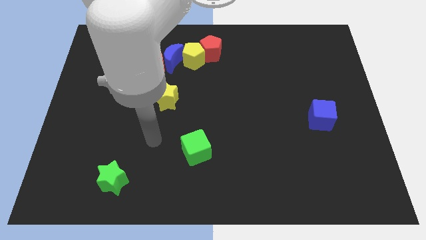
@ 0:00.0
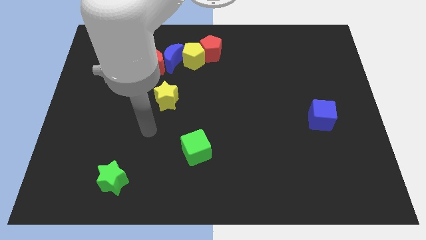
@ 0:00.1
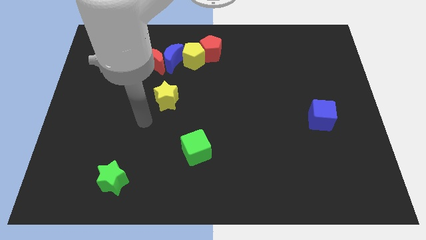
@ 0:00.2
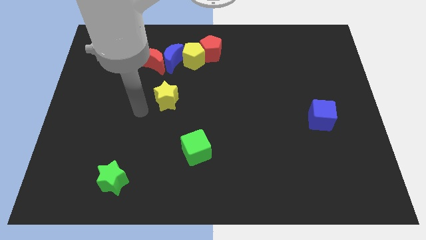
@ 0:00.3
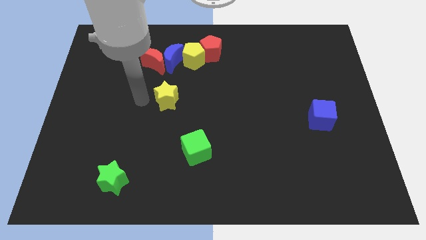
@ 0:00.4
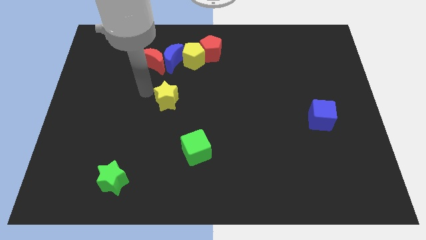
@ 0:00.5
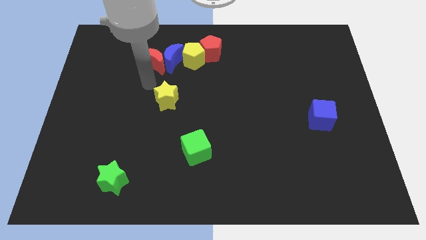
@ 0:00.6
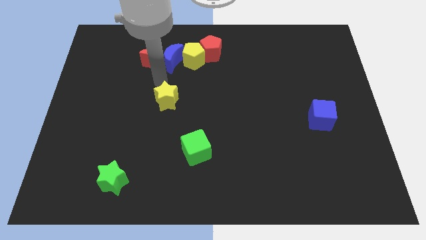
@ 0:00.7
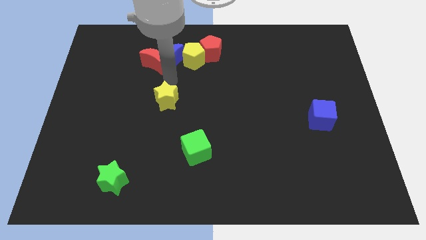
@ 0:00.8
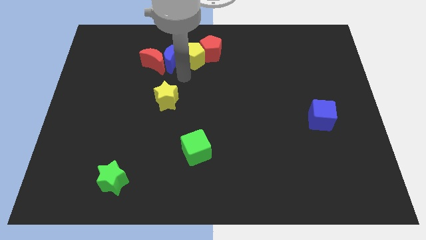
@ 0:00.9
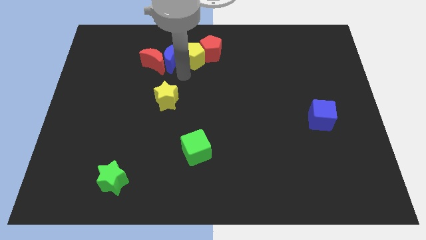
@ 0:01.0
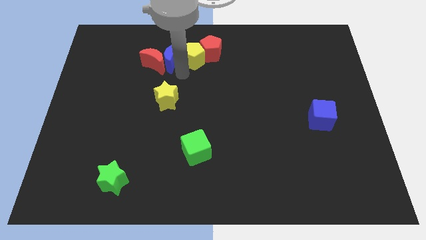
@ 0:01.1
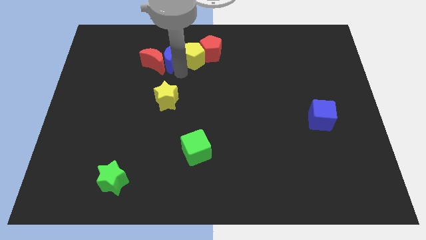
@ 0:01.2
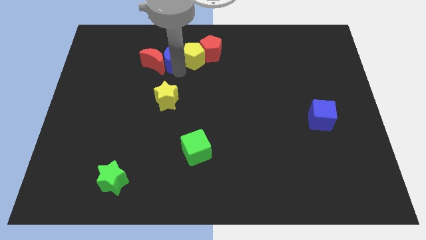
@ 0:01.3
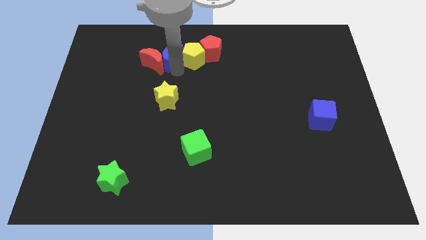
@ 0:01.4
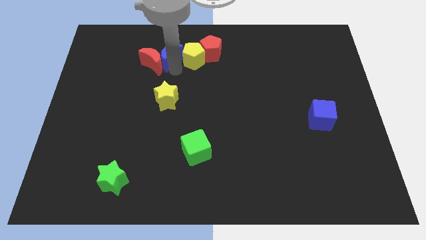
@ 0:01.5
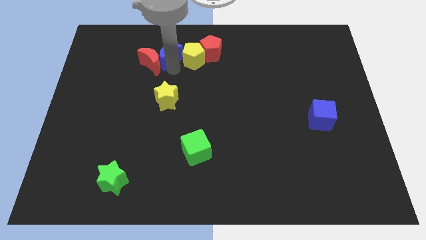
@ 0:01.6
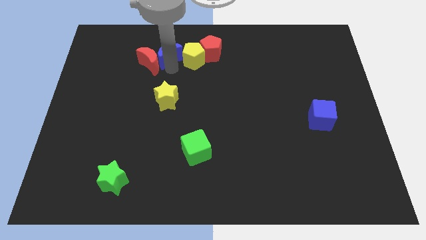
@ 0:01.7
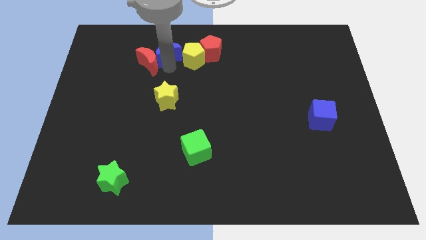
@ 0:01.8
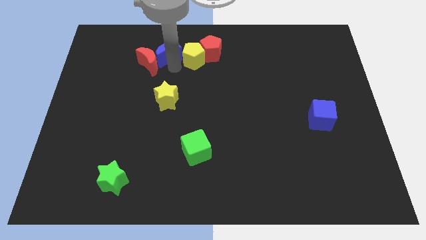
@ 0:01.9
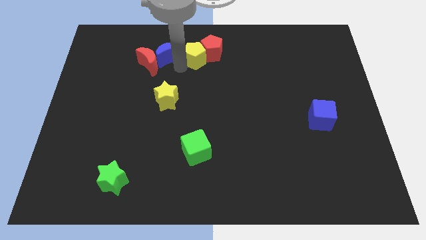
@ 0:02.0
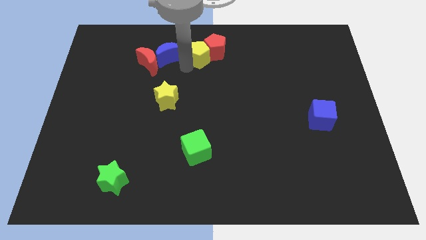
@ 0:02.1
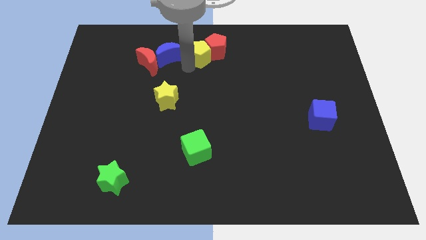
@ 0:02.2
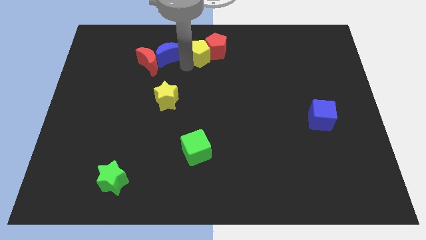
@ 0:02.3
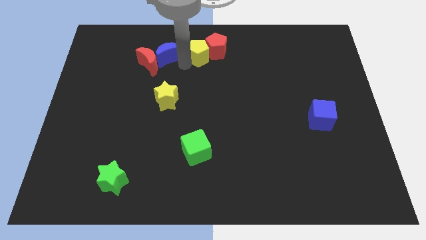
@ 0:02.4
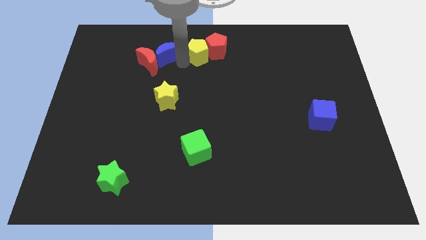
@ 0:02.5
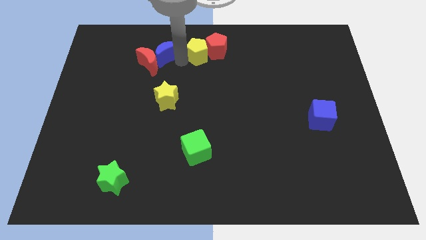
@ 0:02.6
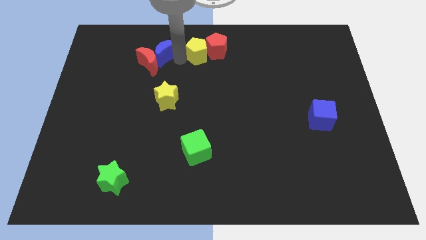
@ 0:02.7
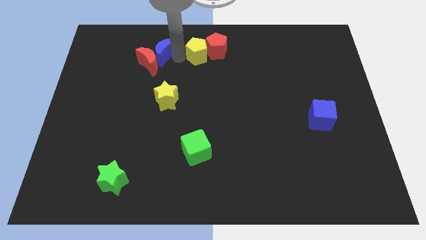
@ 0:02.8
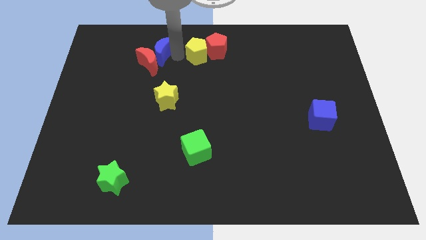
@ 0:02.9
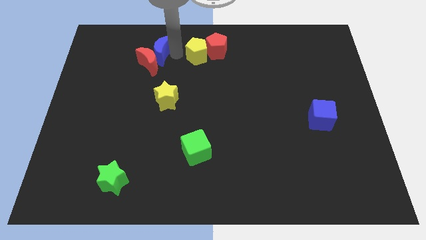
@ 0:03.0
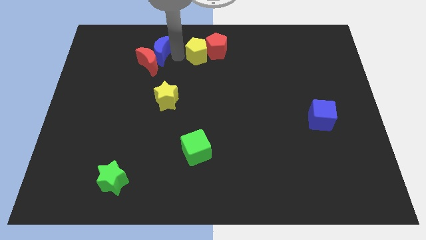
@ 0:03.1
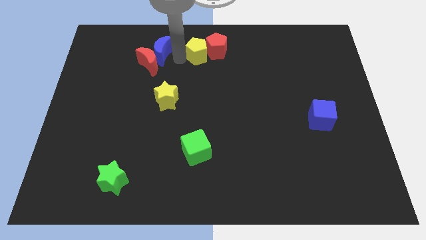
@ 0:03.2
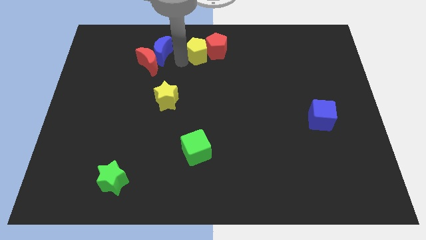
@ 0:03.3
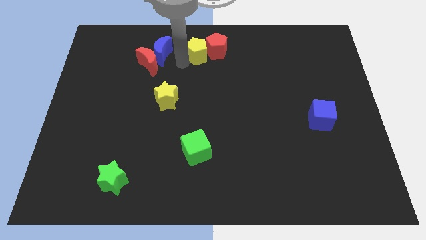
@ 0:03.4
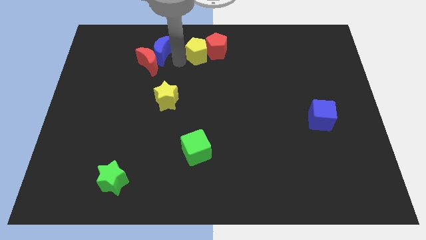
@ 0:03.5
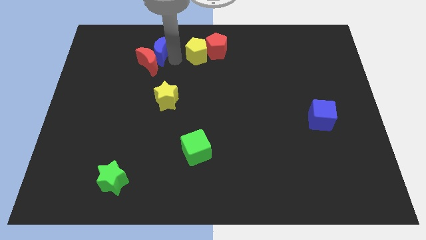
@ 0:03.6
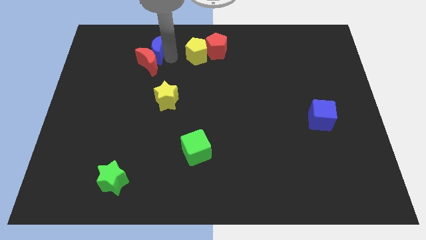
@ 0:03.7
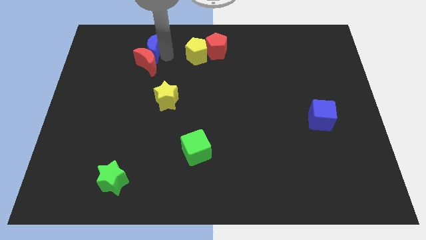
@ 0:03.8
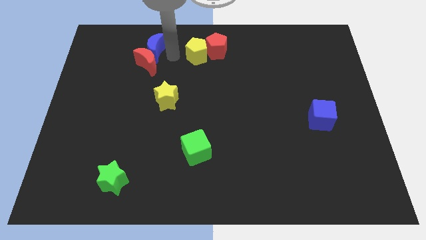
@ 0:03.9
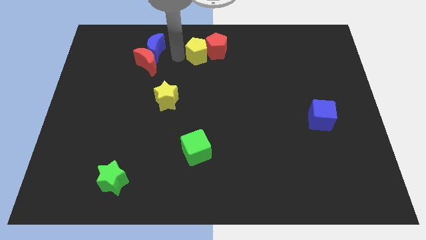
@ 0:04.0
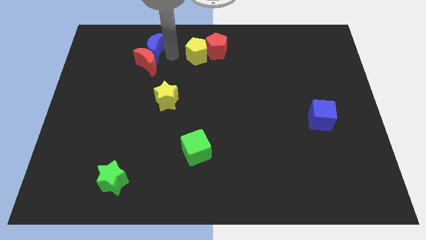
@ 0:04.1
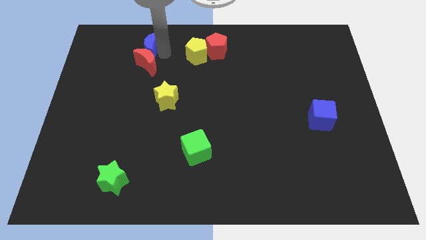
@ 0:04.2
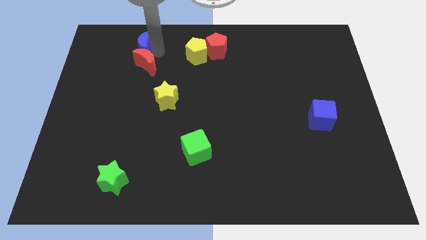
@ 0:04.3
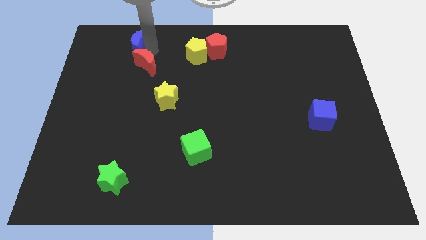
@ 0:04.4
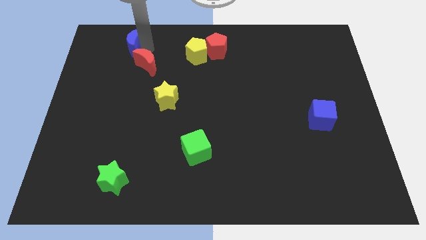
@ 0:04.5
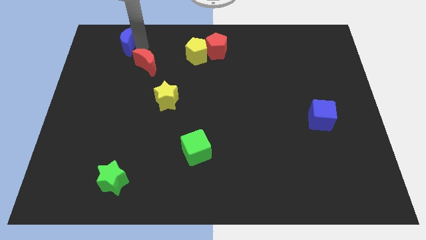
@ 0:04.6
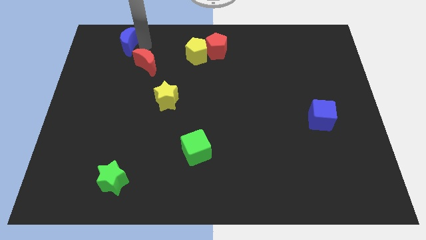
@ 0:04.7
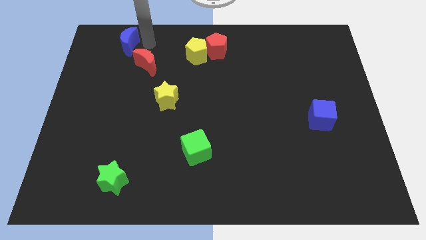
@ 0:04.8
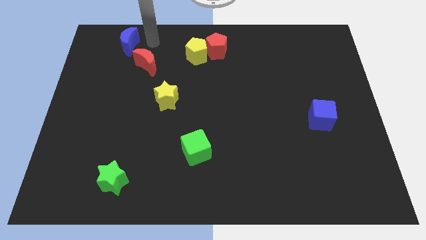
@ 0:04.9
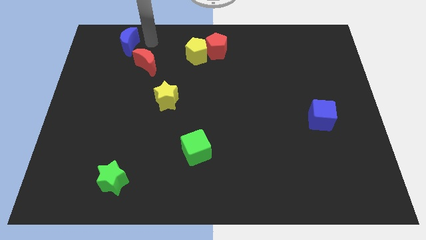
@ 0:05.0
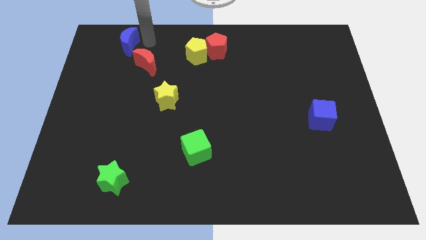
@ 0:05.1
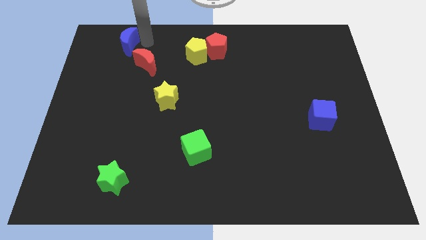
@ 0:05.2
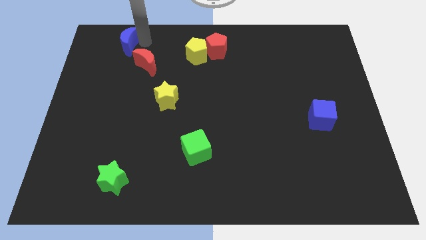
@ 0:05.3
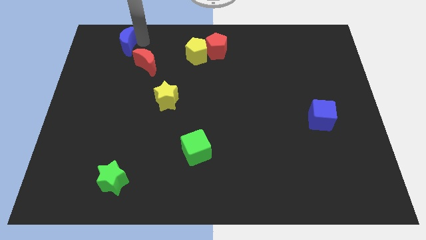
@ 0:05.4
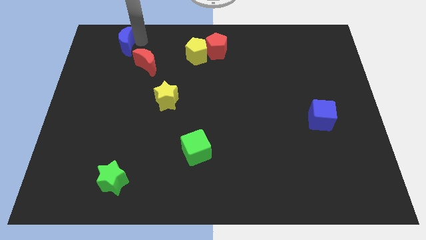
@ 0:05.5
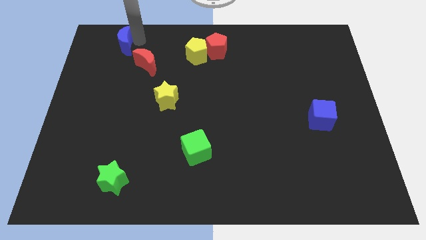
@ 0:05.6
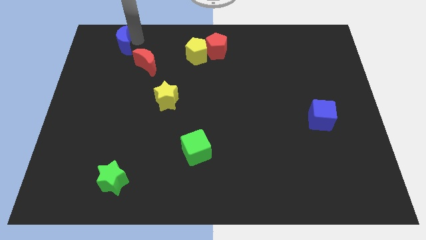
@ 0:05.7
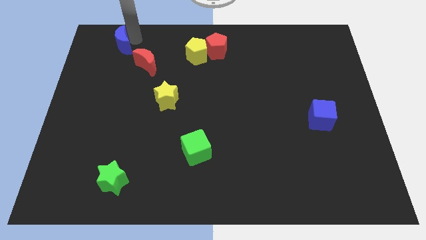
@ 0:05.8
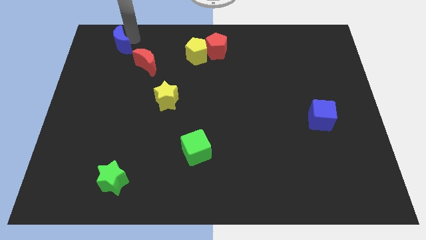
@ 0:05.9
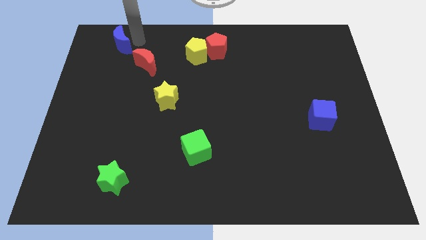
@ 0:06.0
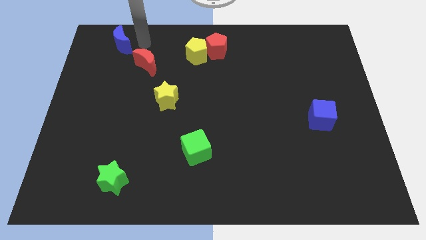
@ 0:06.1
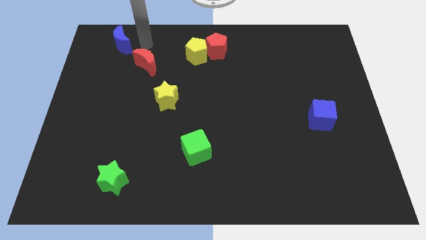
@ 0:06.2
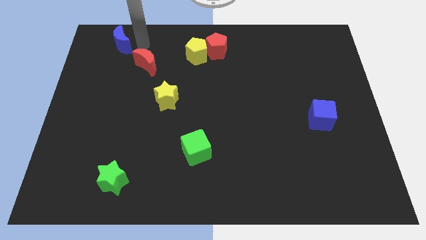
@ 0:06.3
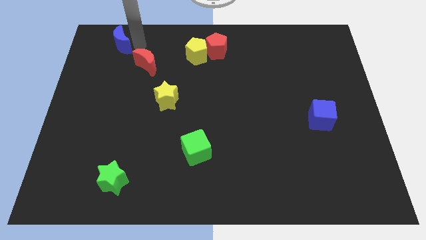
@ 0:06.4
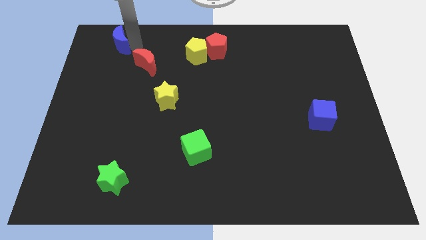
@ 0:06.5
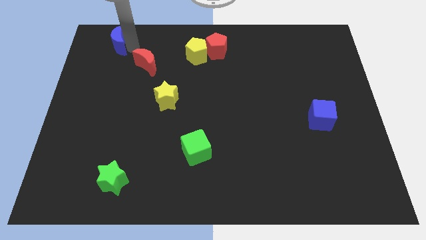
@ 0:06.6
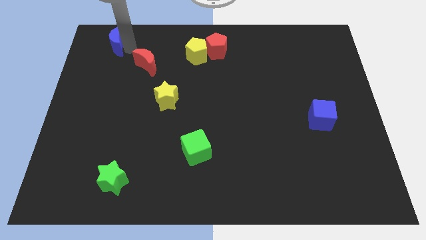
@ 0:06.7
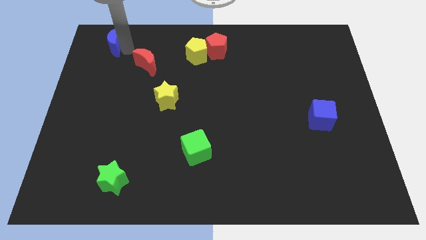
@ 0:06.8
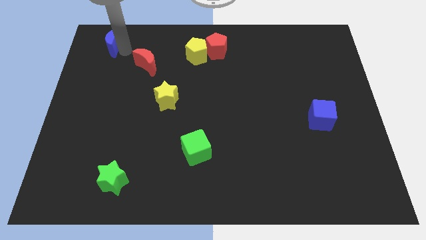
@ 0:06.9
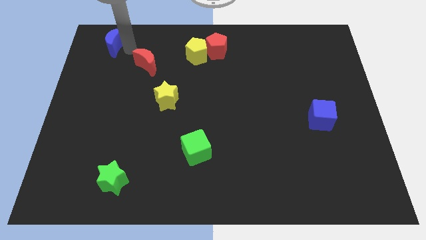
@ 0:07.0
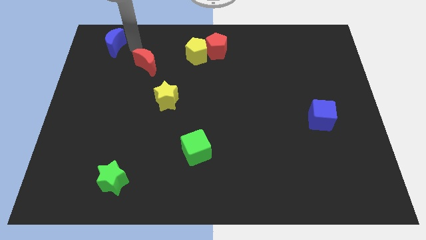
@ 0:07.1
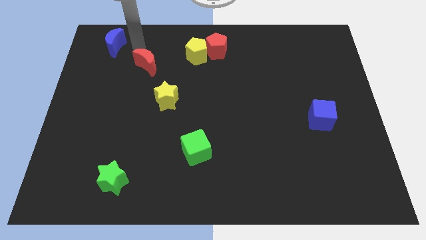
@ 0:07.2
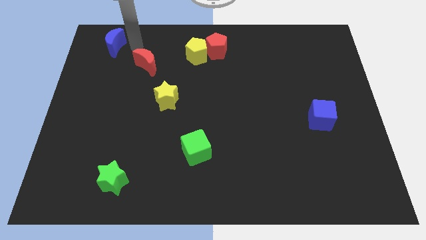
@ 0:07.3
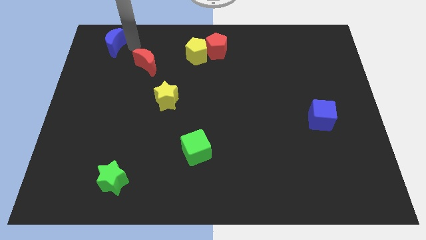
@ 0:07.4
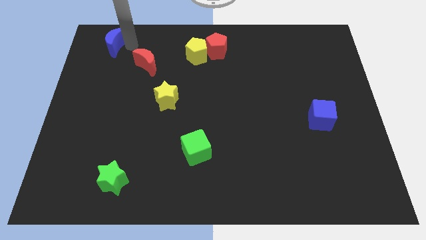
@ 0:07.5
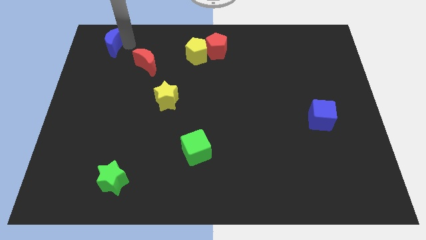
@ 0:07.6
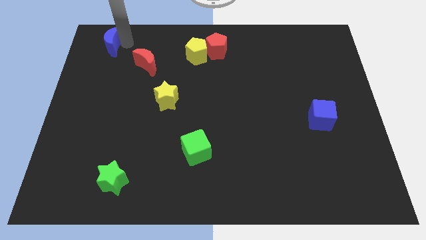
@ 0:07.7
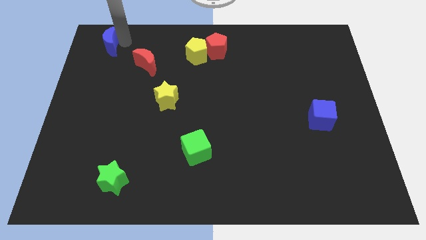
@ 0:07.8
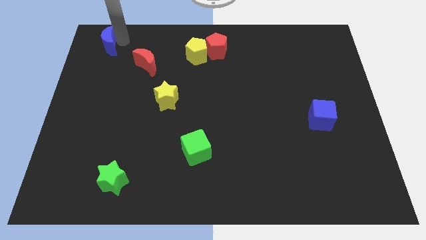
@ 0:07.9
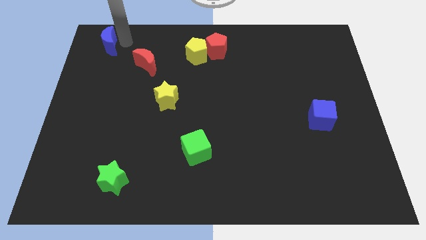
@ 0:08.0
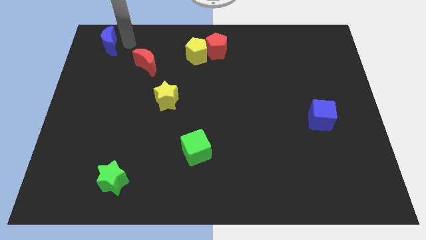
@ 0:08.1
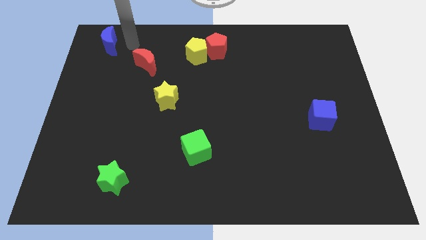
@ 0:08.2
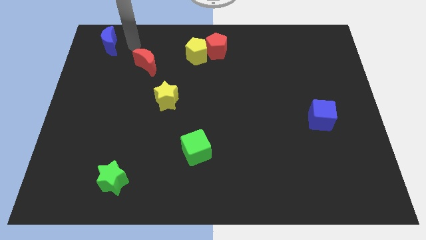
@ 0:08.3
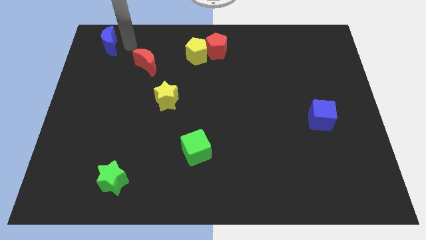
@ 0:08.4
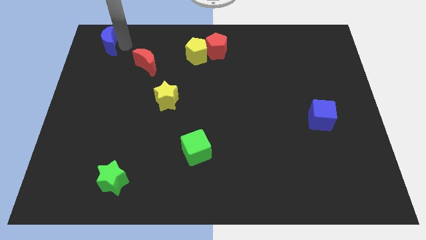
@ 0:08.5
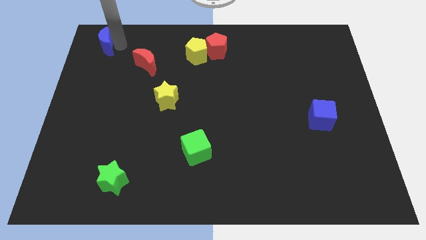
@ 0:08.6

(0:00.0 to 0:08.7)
slide the blue moon to the top left of the board
